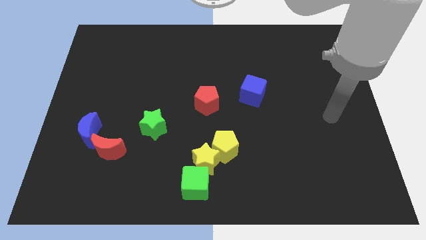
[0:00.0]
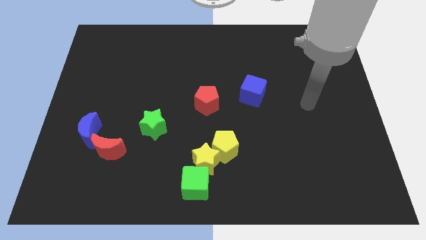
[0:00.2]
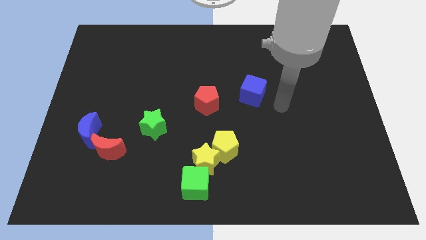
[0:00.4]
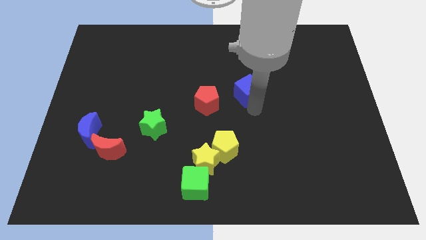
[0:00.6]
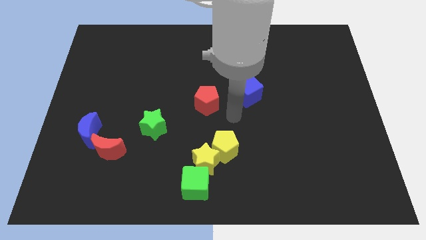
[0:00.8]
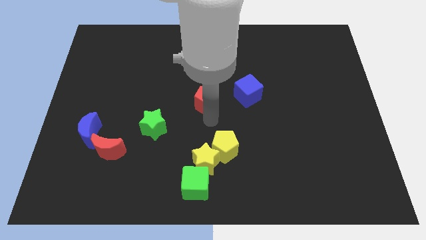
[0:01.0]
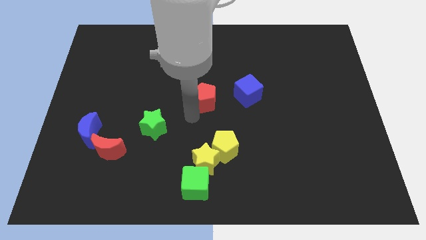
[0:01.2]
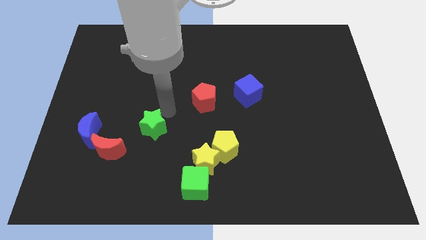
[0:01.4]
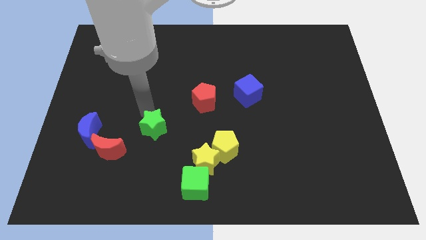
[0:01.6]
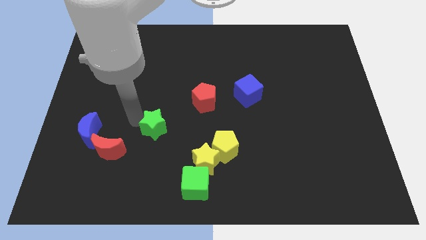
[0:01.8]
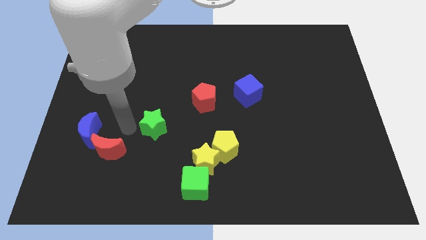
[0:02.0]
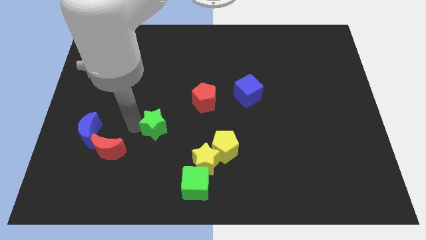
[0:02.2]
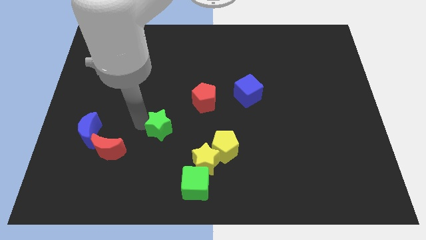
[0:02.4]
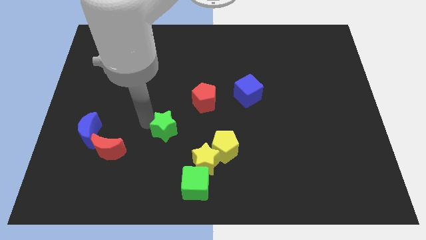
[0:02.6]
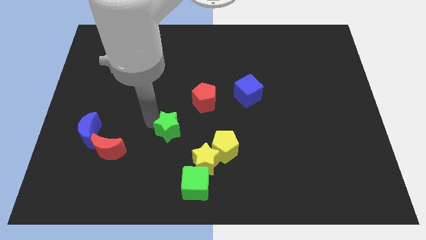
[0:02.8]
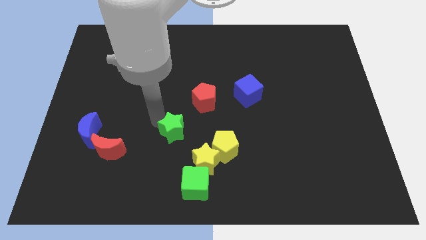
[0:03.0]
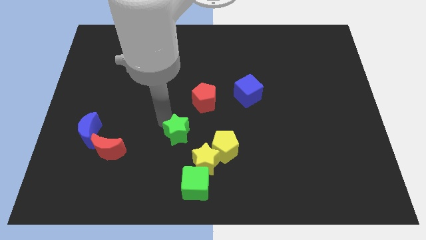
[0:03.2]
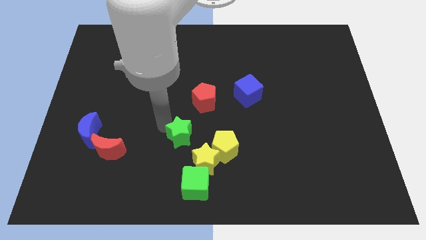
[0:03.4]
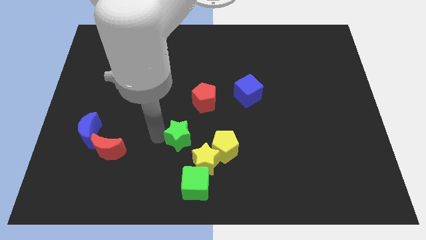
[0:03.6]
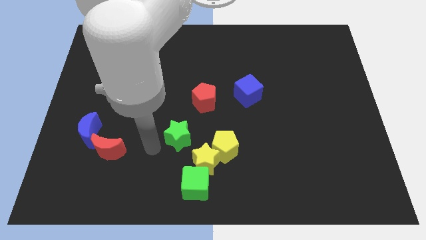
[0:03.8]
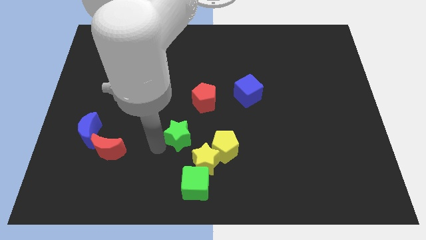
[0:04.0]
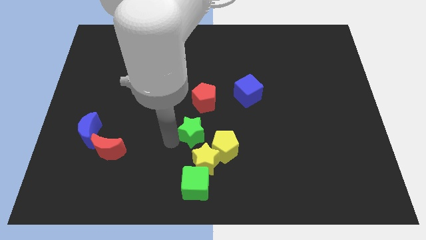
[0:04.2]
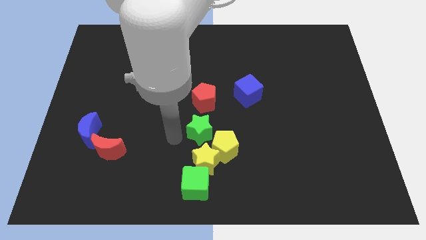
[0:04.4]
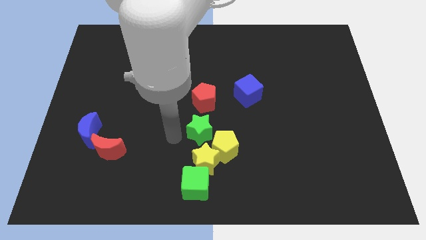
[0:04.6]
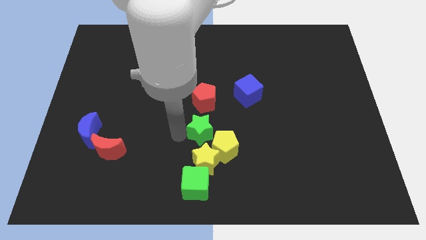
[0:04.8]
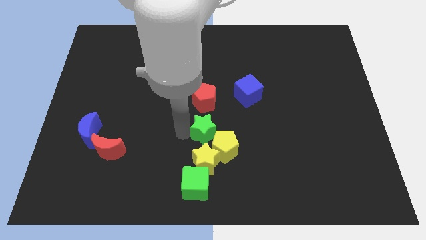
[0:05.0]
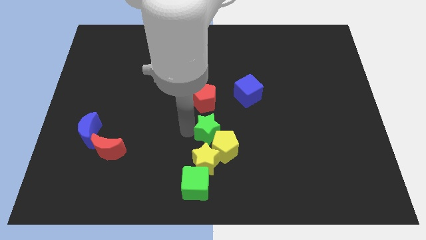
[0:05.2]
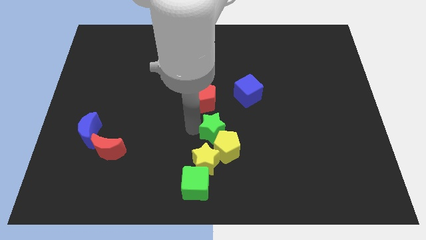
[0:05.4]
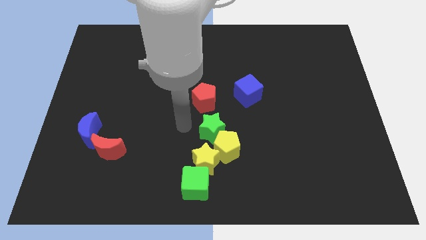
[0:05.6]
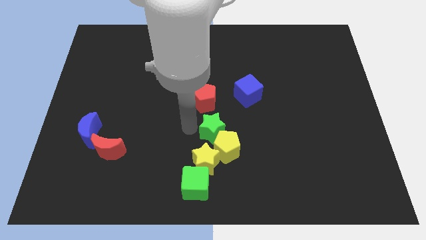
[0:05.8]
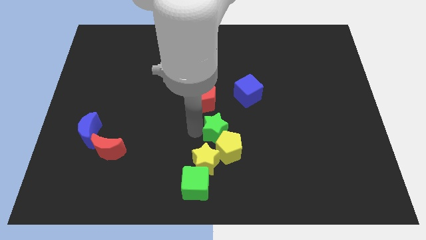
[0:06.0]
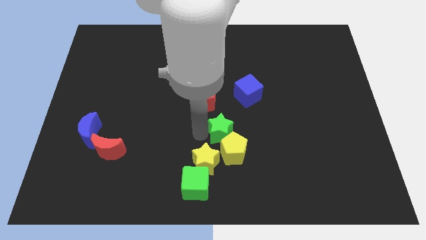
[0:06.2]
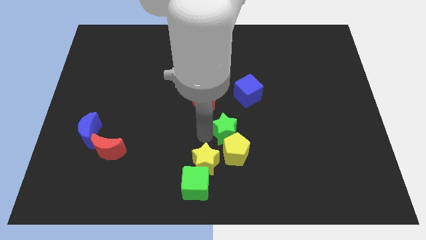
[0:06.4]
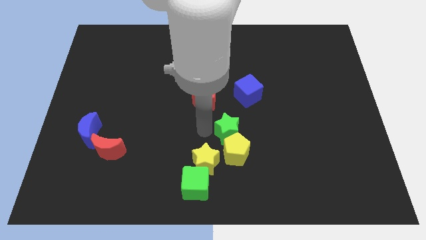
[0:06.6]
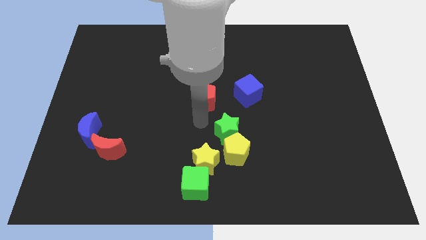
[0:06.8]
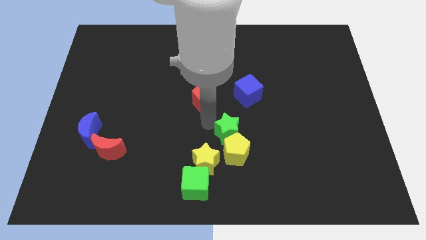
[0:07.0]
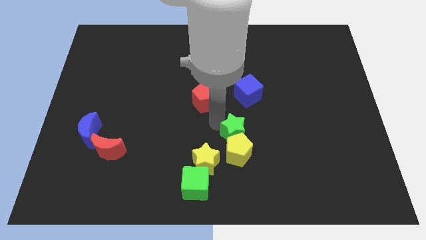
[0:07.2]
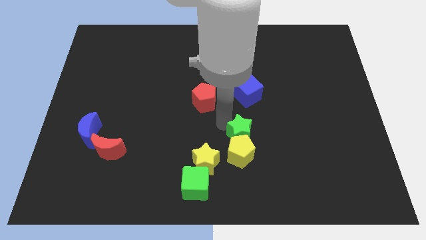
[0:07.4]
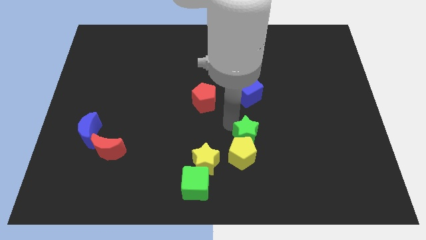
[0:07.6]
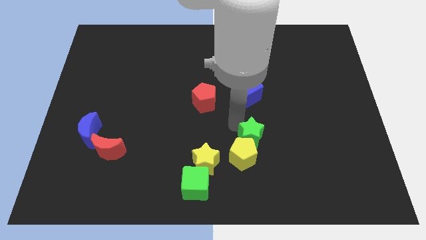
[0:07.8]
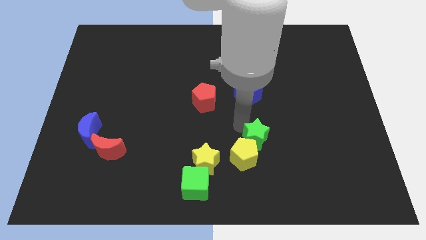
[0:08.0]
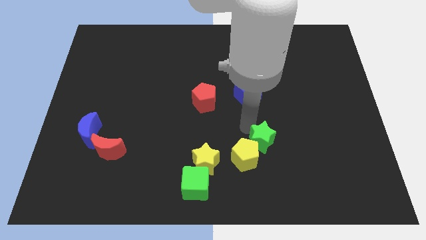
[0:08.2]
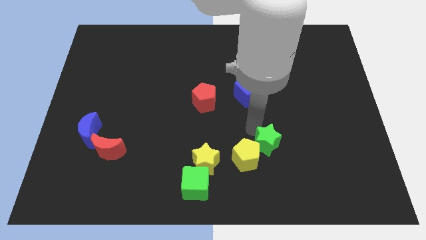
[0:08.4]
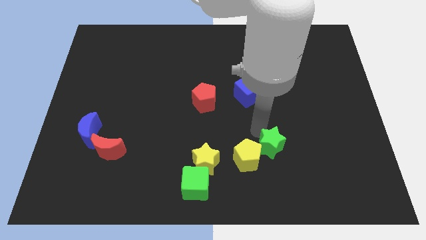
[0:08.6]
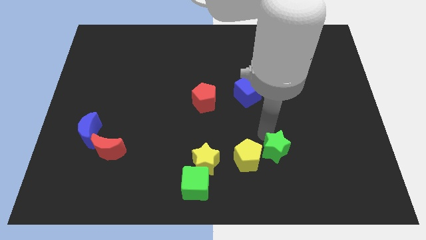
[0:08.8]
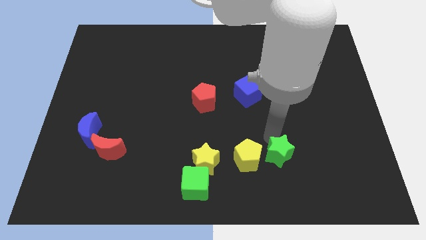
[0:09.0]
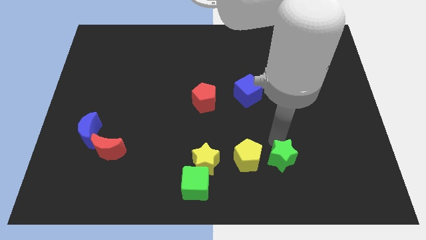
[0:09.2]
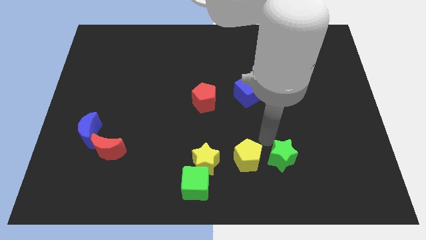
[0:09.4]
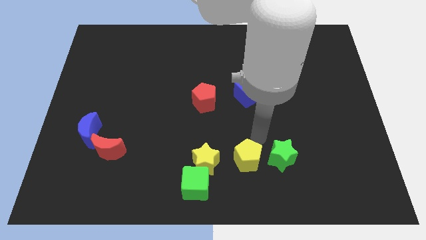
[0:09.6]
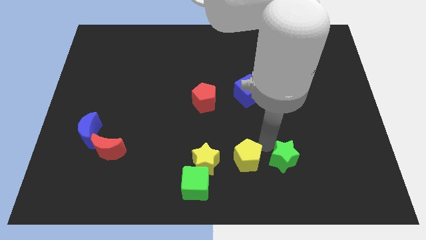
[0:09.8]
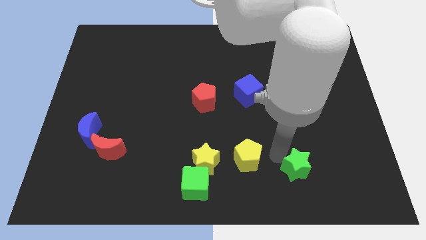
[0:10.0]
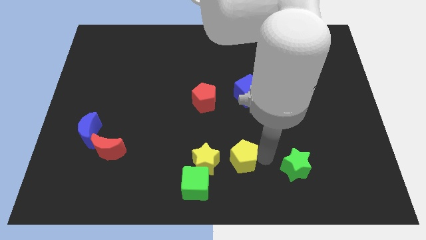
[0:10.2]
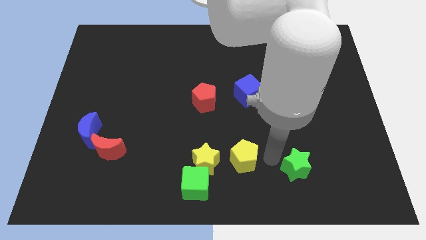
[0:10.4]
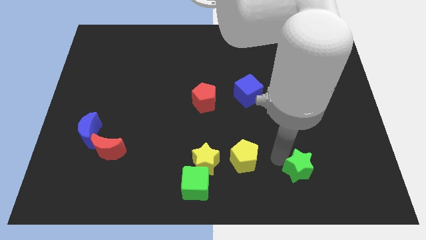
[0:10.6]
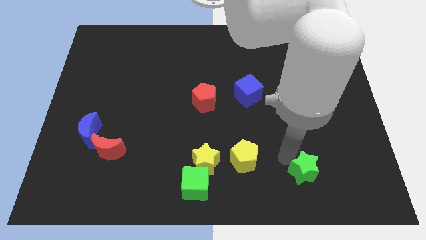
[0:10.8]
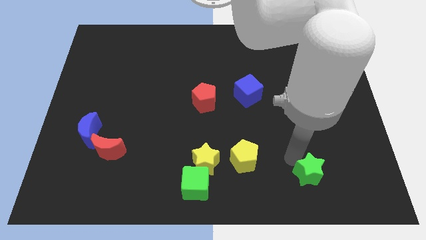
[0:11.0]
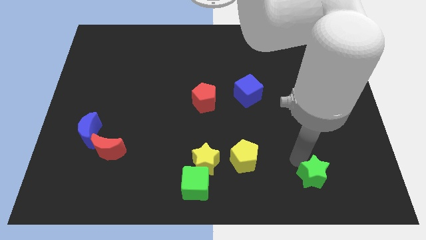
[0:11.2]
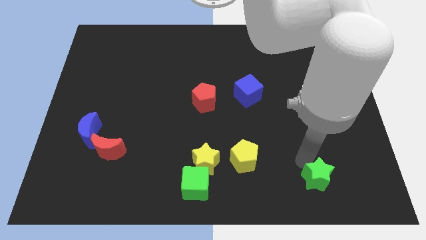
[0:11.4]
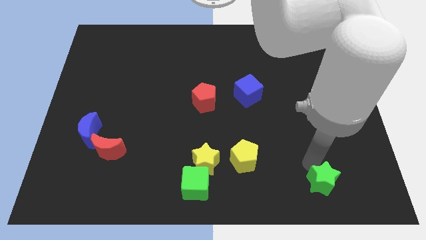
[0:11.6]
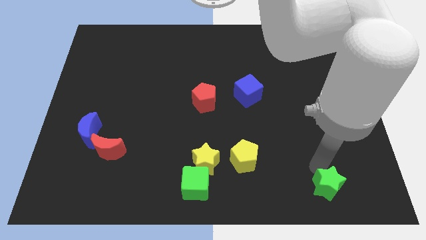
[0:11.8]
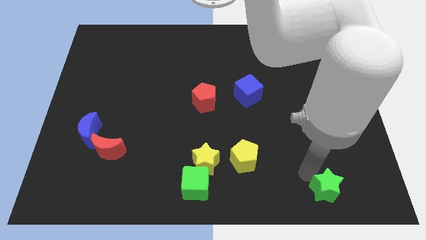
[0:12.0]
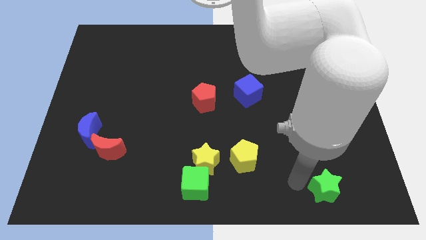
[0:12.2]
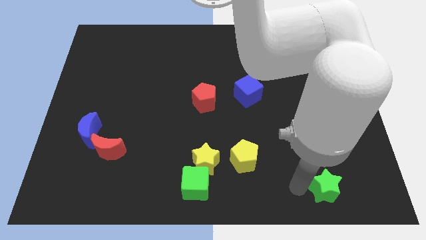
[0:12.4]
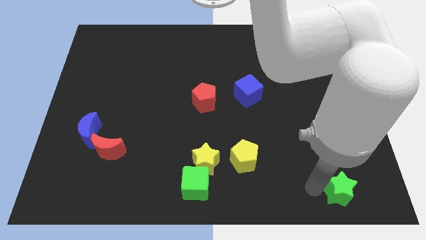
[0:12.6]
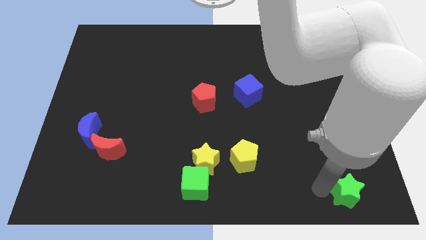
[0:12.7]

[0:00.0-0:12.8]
move the green star to the bottom right of the board
